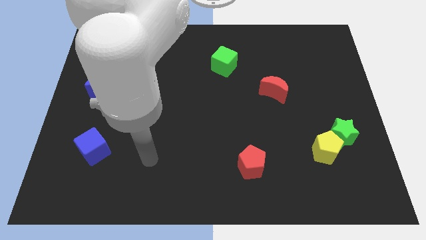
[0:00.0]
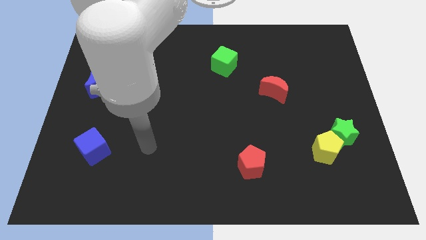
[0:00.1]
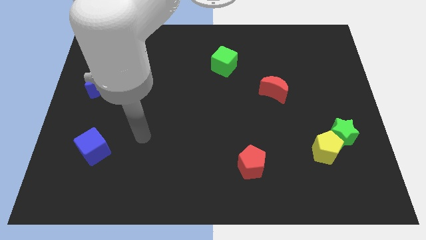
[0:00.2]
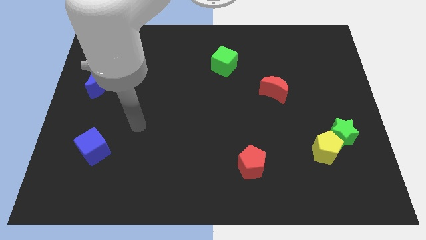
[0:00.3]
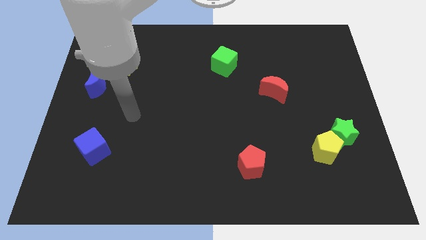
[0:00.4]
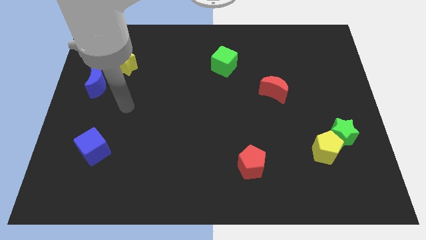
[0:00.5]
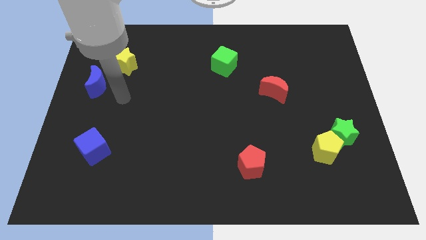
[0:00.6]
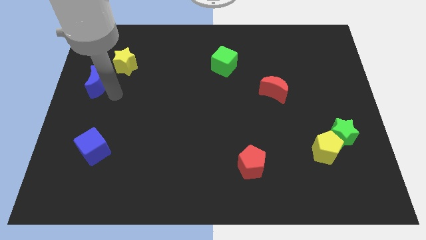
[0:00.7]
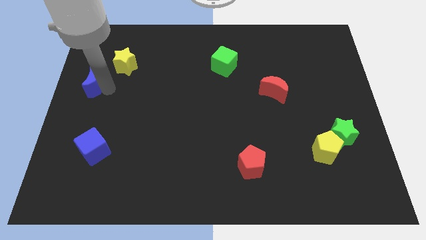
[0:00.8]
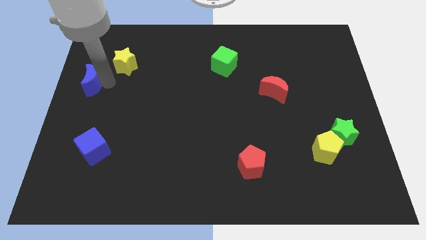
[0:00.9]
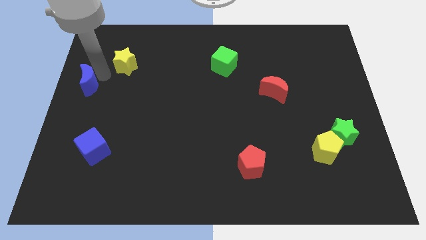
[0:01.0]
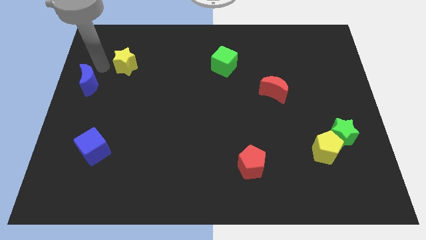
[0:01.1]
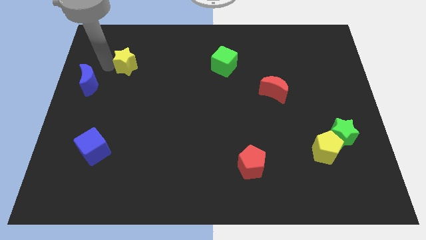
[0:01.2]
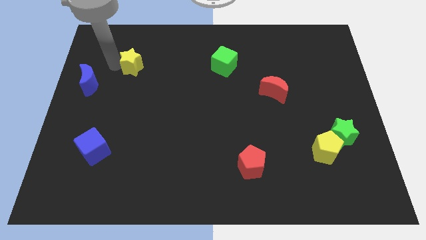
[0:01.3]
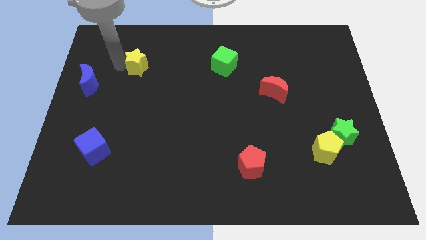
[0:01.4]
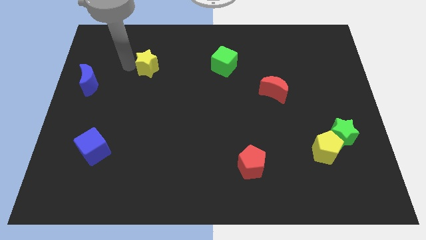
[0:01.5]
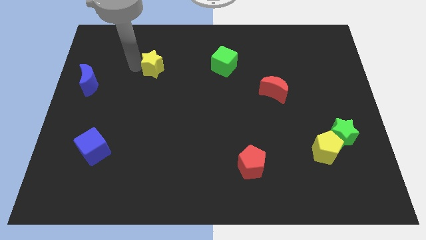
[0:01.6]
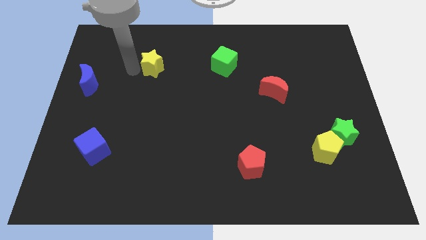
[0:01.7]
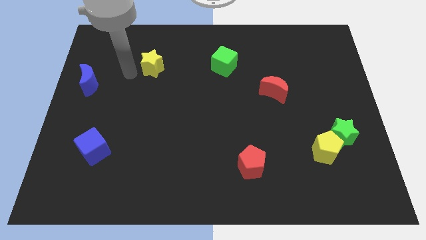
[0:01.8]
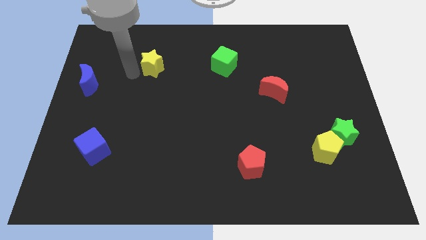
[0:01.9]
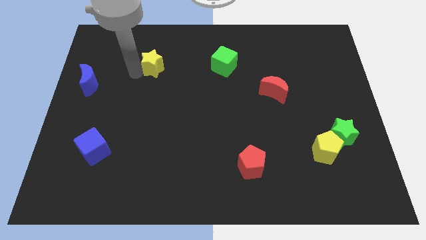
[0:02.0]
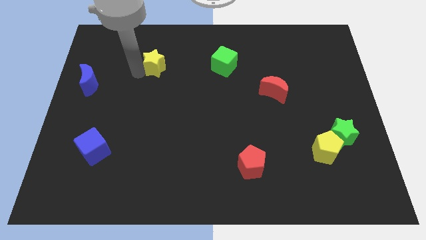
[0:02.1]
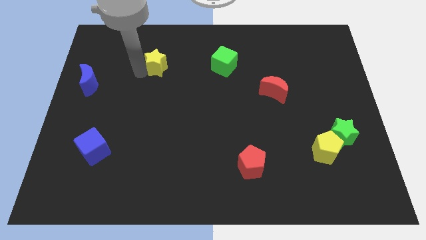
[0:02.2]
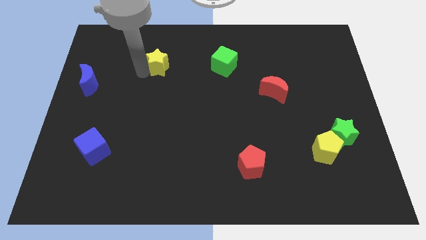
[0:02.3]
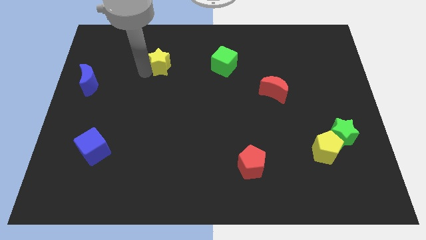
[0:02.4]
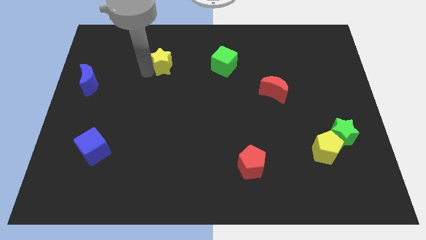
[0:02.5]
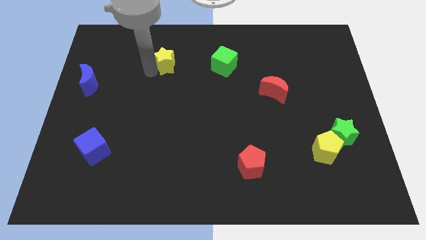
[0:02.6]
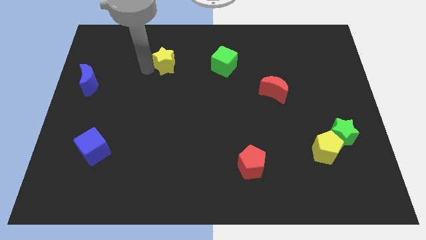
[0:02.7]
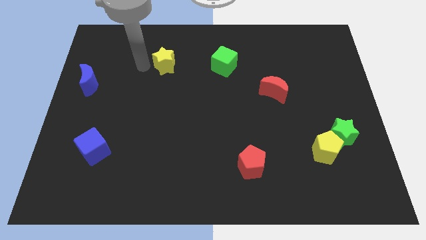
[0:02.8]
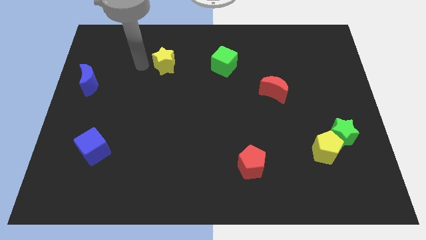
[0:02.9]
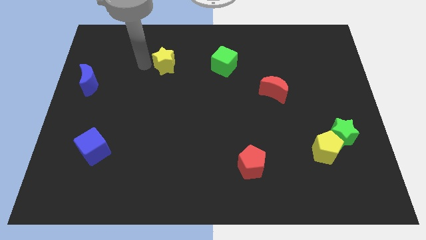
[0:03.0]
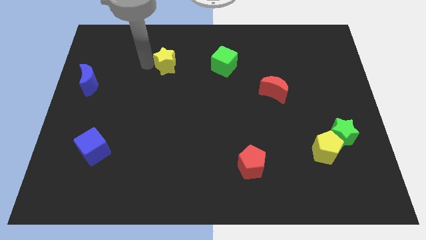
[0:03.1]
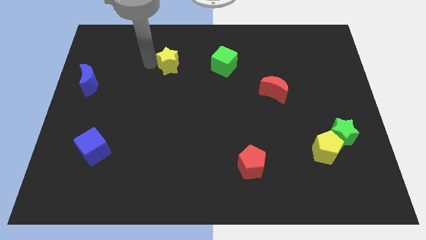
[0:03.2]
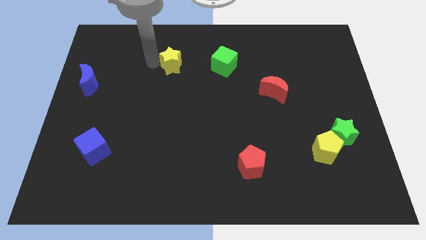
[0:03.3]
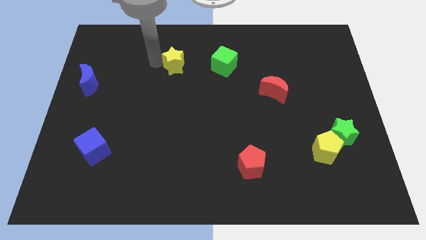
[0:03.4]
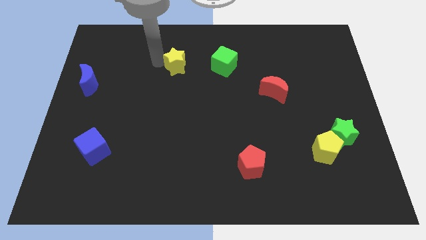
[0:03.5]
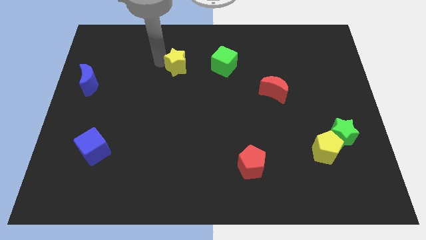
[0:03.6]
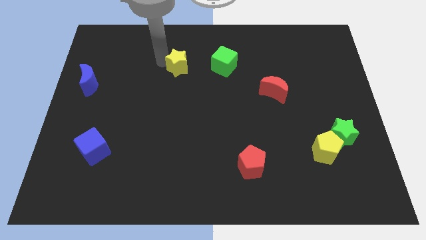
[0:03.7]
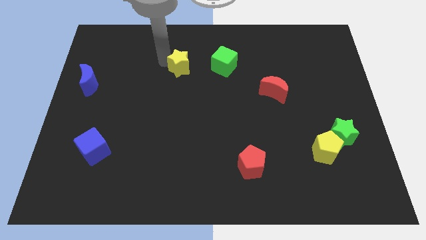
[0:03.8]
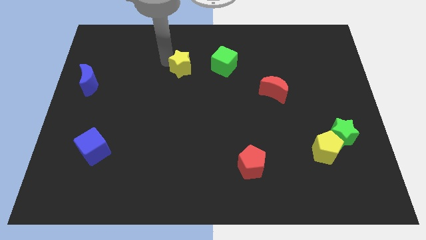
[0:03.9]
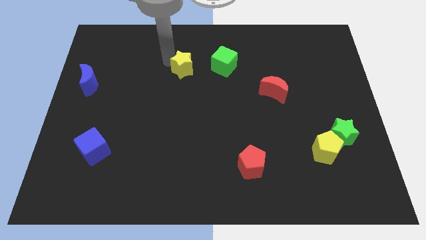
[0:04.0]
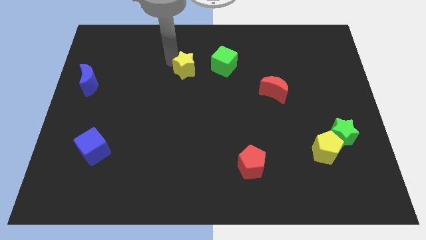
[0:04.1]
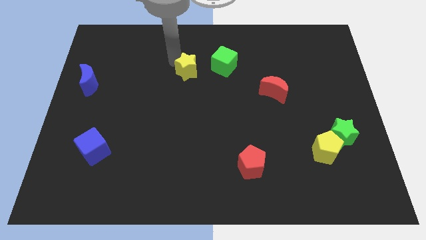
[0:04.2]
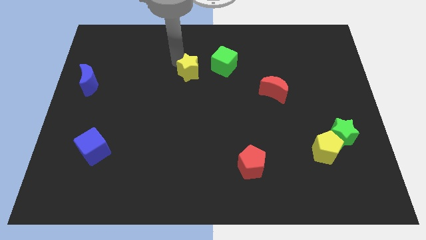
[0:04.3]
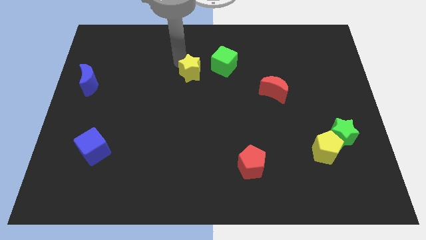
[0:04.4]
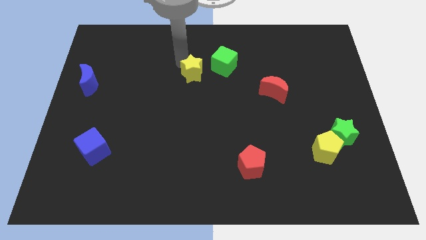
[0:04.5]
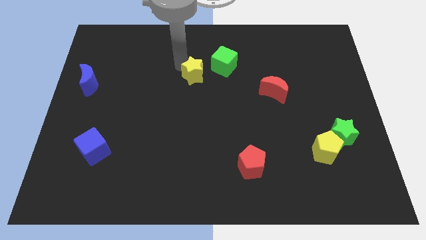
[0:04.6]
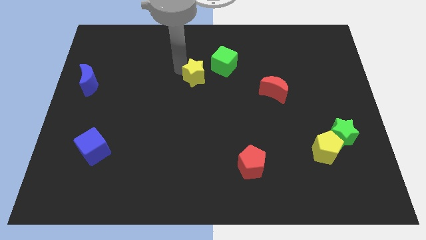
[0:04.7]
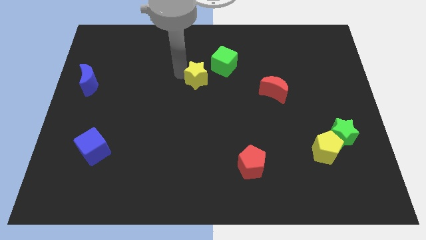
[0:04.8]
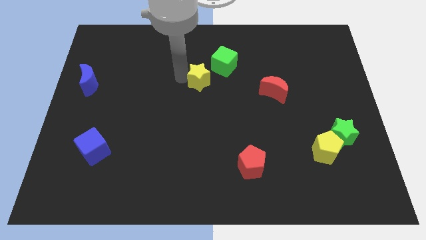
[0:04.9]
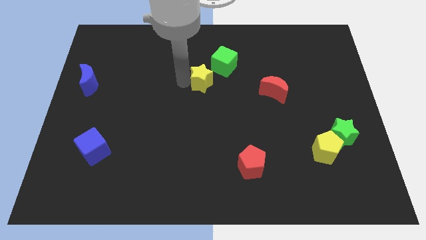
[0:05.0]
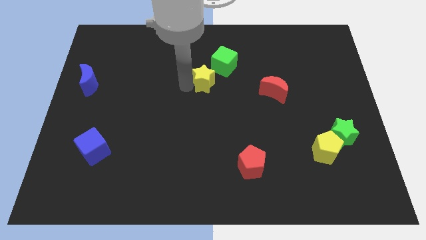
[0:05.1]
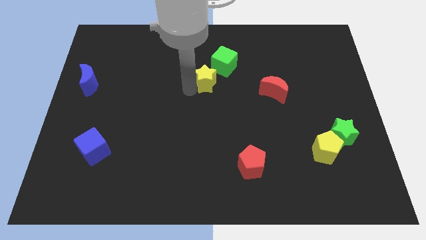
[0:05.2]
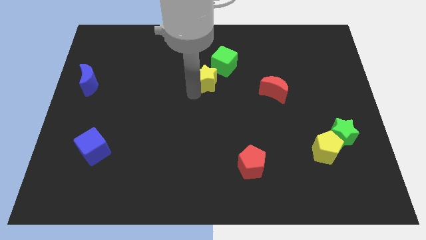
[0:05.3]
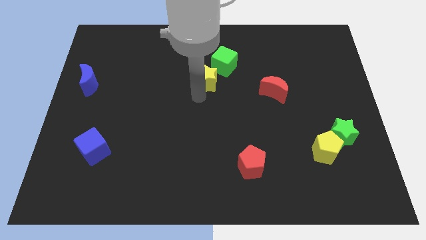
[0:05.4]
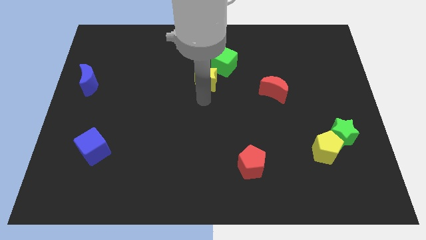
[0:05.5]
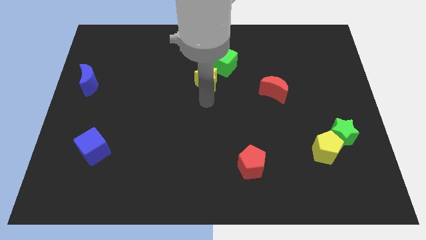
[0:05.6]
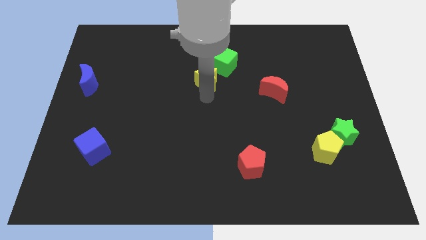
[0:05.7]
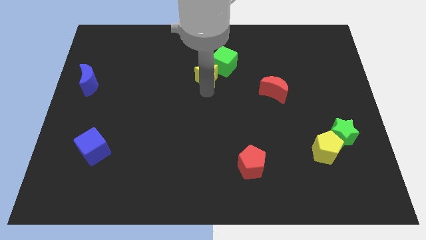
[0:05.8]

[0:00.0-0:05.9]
put the yellow star close to the green cube

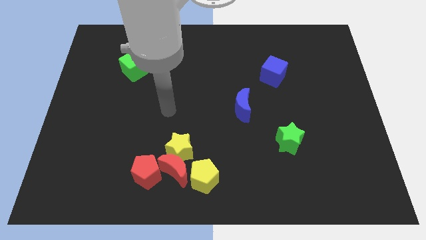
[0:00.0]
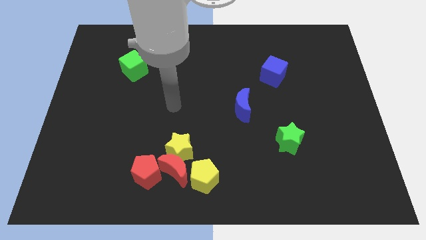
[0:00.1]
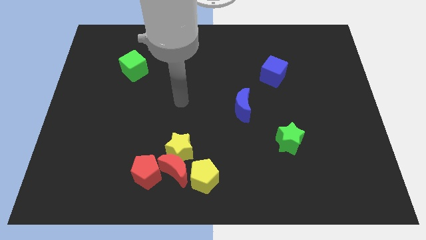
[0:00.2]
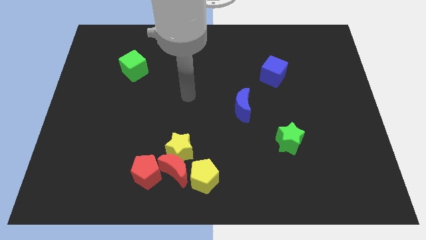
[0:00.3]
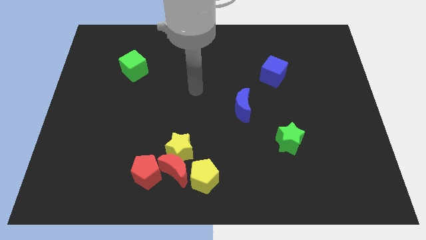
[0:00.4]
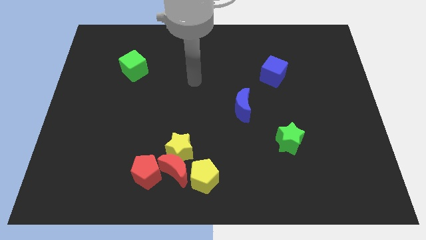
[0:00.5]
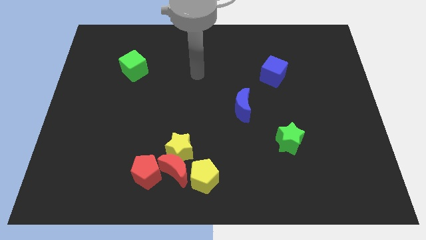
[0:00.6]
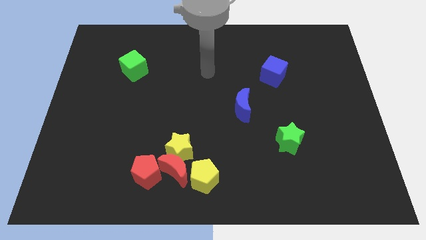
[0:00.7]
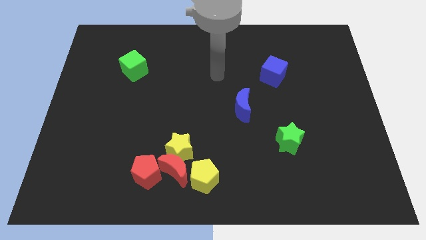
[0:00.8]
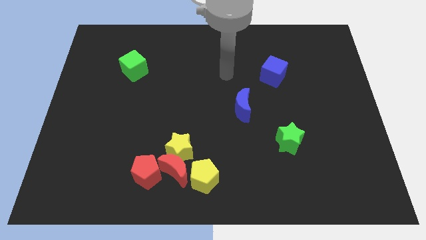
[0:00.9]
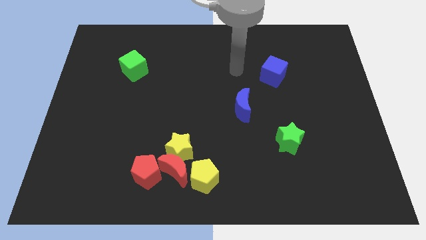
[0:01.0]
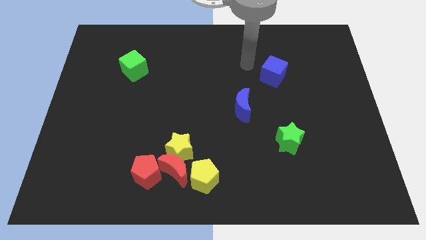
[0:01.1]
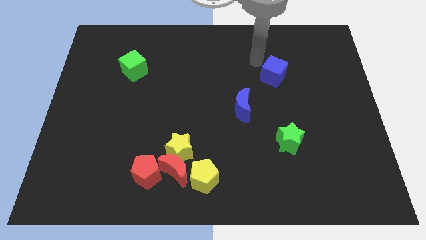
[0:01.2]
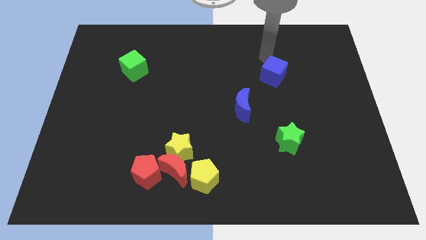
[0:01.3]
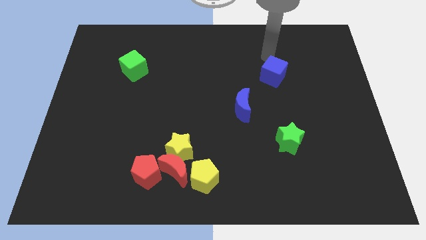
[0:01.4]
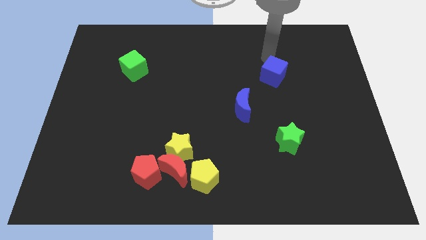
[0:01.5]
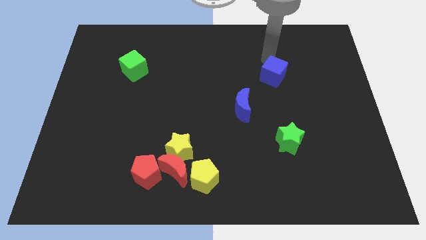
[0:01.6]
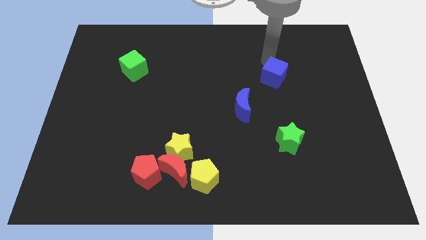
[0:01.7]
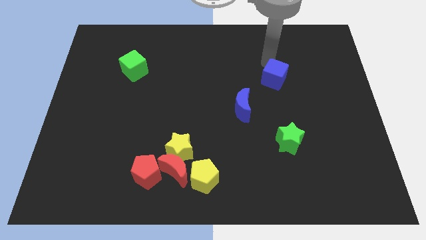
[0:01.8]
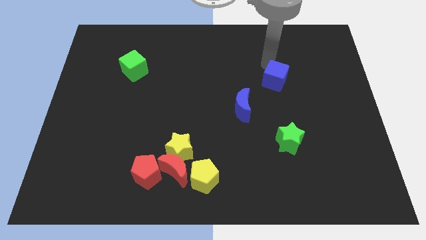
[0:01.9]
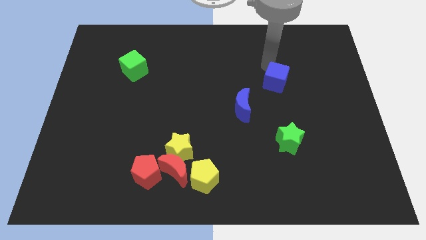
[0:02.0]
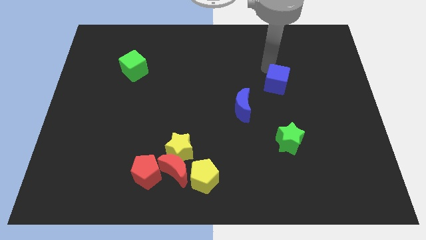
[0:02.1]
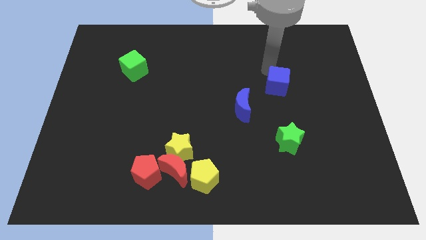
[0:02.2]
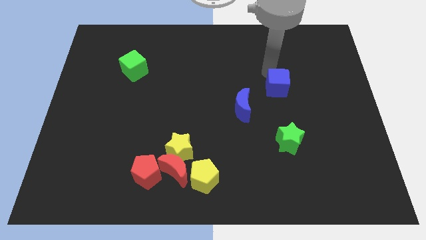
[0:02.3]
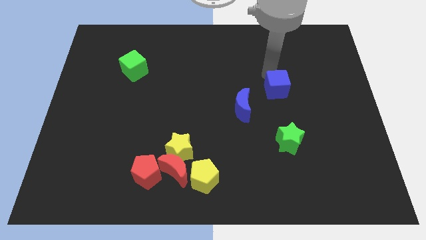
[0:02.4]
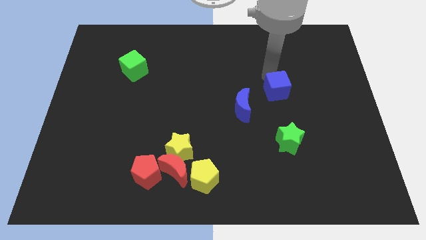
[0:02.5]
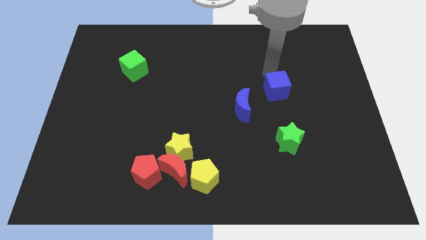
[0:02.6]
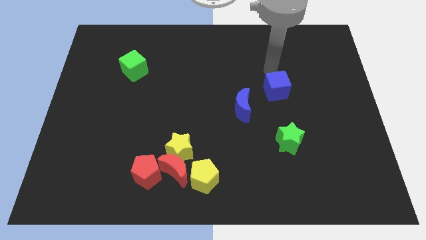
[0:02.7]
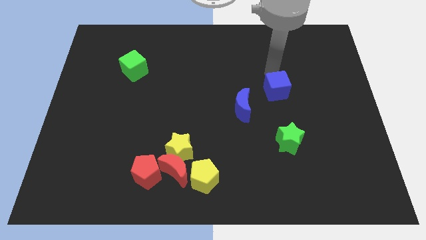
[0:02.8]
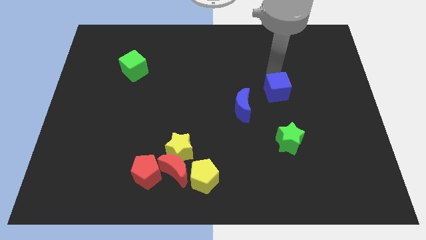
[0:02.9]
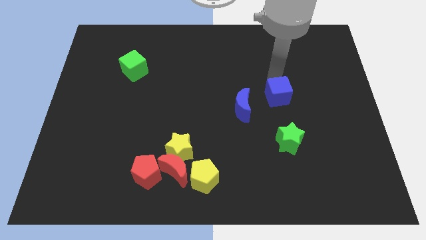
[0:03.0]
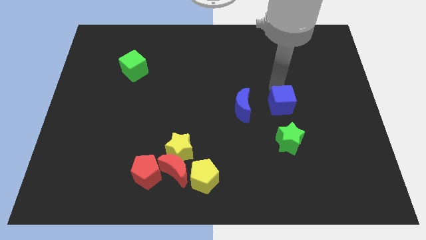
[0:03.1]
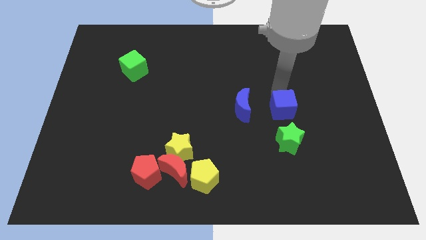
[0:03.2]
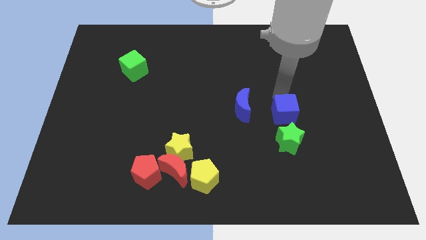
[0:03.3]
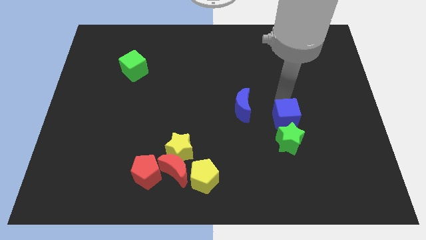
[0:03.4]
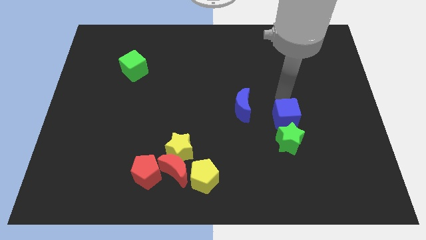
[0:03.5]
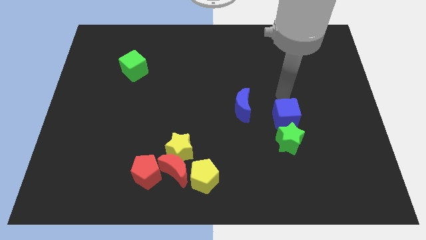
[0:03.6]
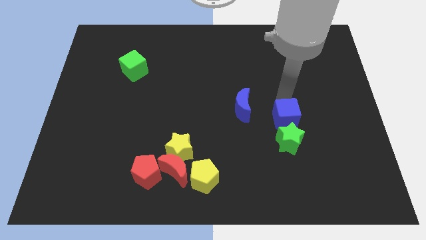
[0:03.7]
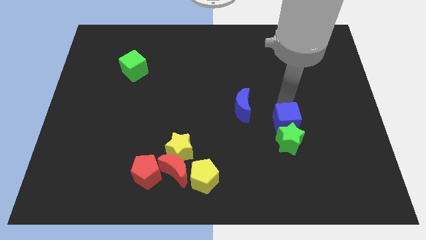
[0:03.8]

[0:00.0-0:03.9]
slide the blue cube close to the green star
